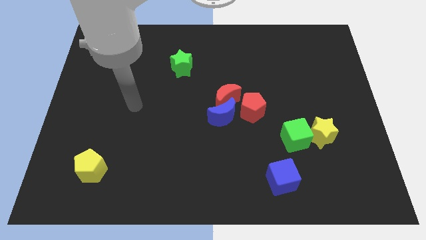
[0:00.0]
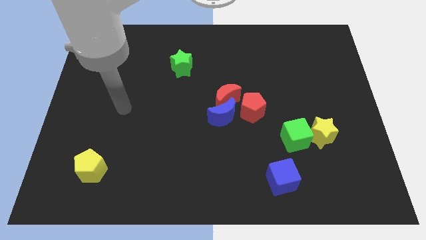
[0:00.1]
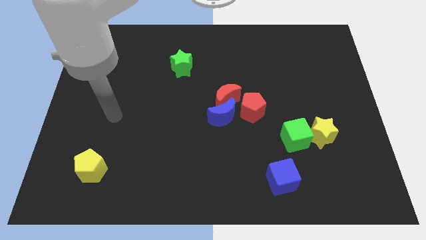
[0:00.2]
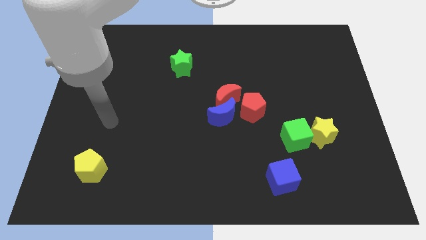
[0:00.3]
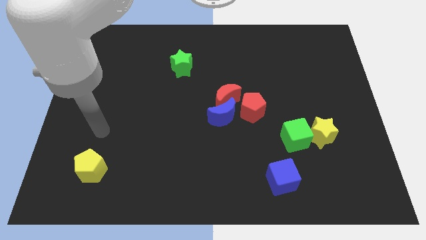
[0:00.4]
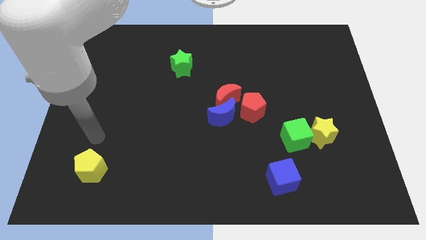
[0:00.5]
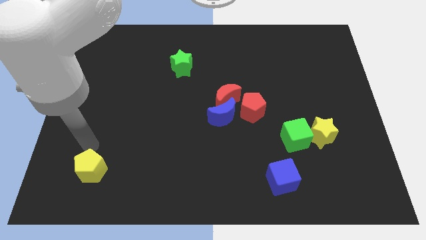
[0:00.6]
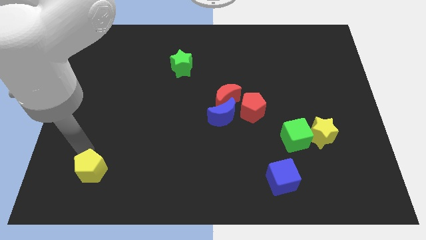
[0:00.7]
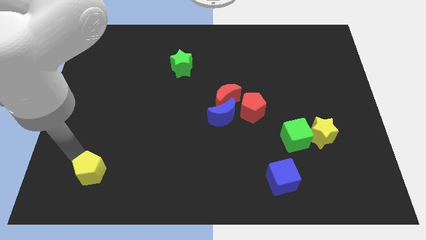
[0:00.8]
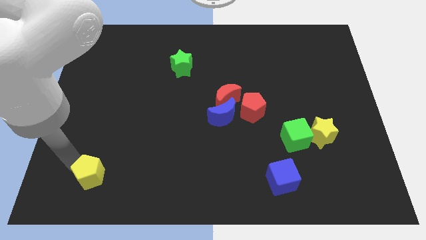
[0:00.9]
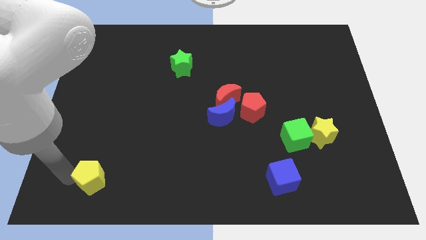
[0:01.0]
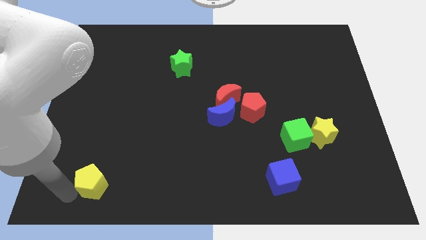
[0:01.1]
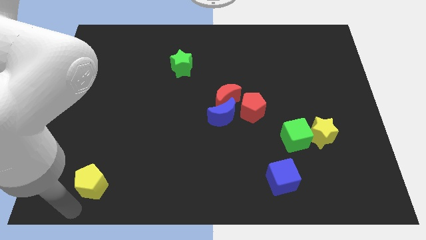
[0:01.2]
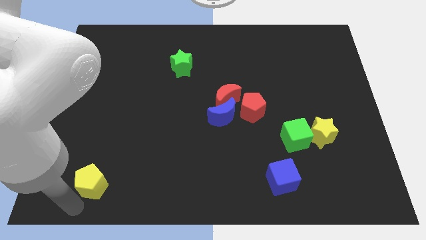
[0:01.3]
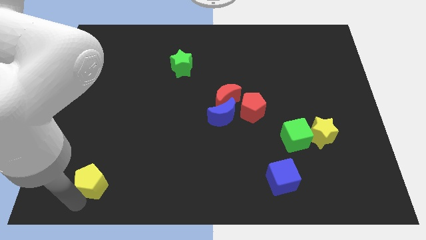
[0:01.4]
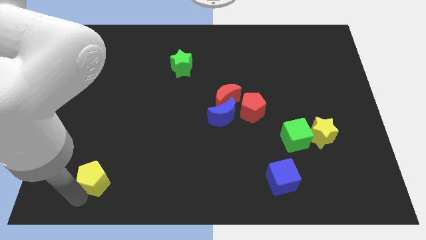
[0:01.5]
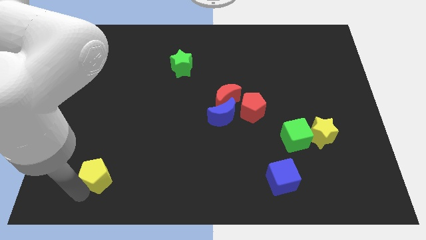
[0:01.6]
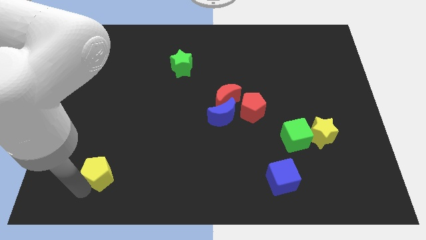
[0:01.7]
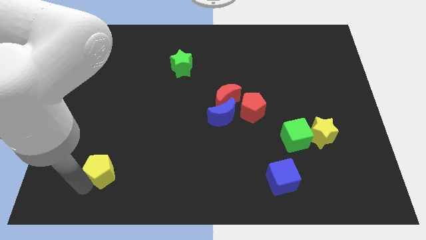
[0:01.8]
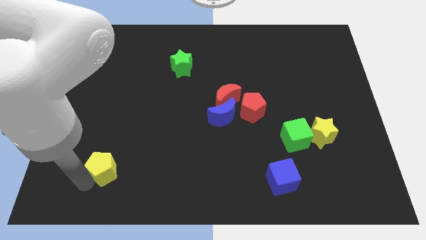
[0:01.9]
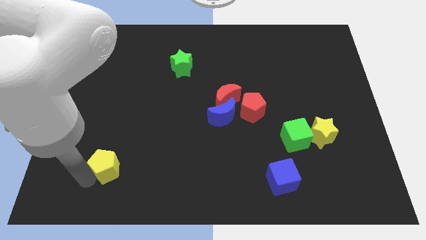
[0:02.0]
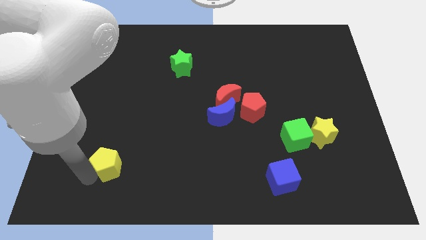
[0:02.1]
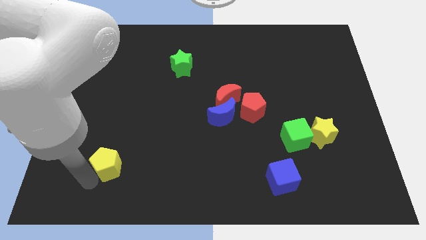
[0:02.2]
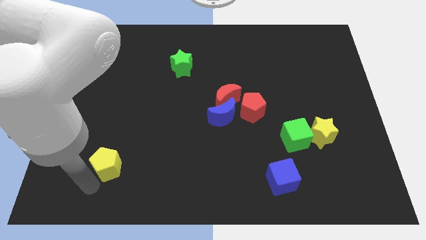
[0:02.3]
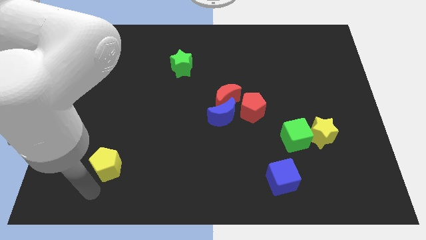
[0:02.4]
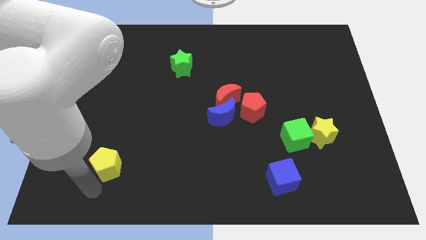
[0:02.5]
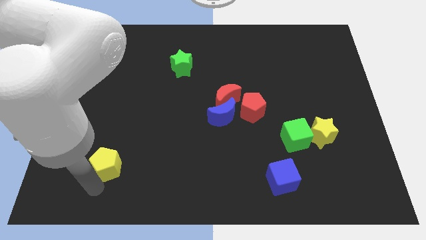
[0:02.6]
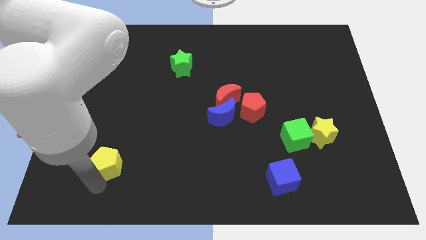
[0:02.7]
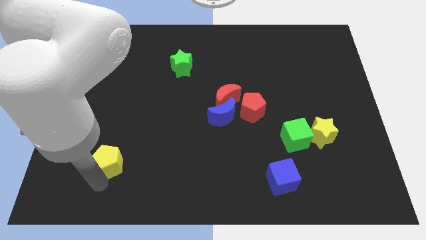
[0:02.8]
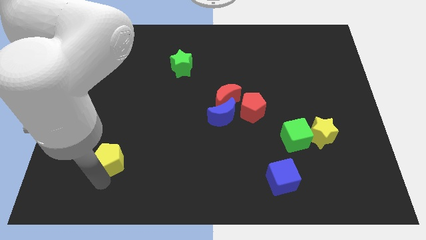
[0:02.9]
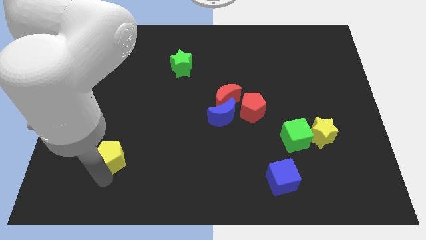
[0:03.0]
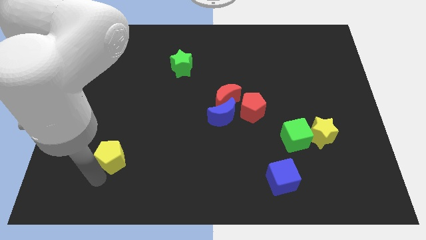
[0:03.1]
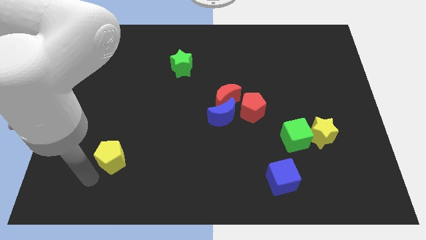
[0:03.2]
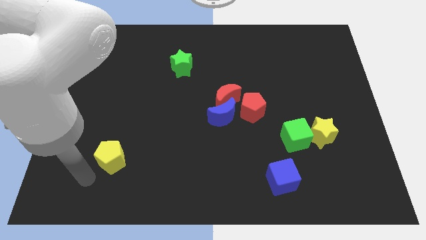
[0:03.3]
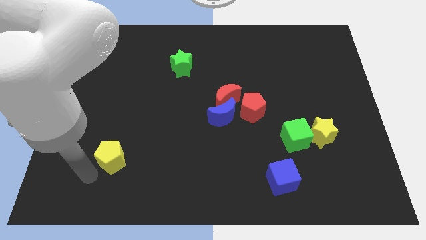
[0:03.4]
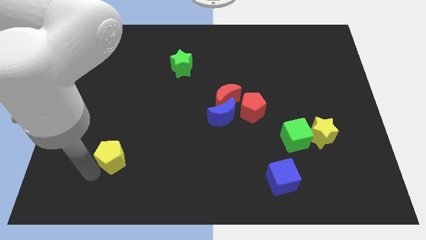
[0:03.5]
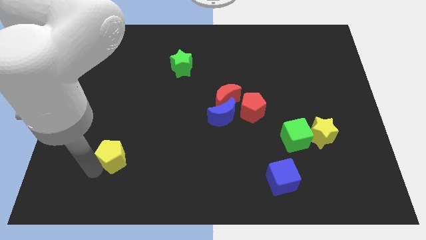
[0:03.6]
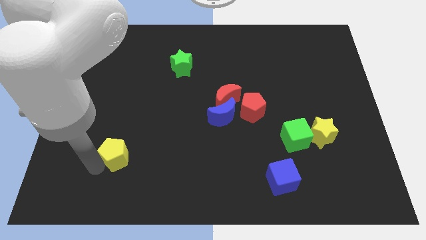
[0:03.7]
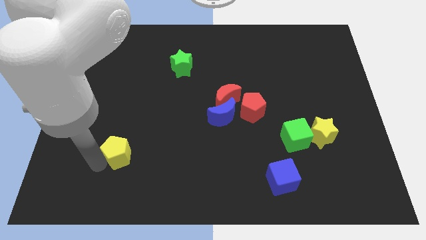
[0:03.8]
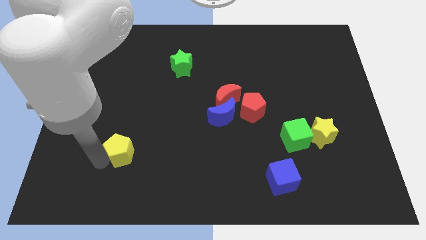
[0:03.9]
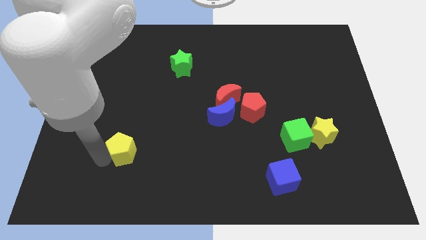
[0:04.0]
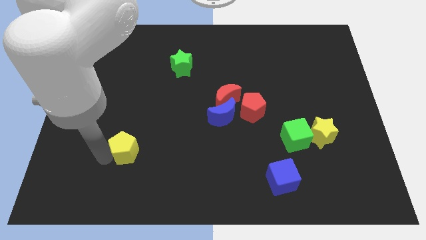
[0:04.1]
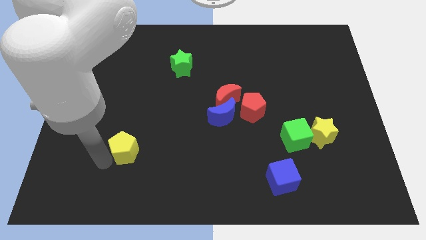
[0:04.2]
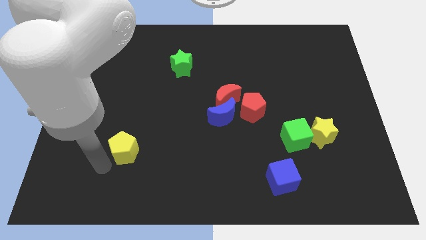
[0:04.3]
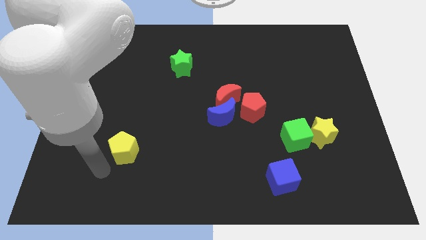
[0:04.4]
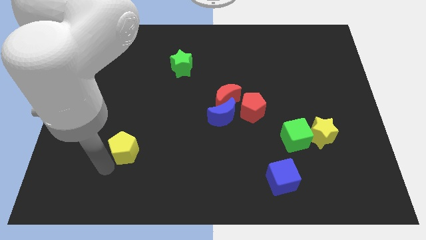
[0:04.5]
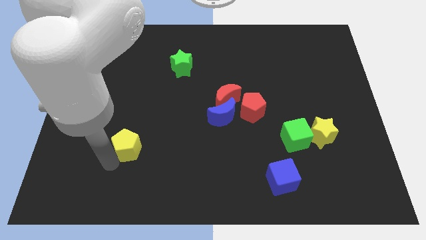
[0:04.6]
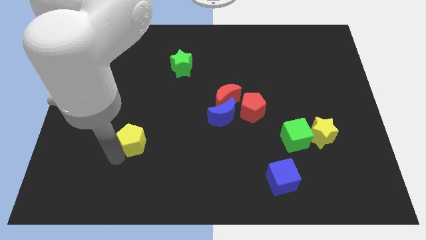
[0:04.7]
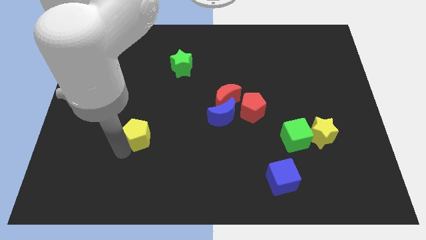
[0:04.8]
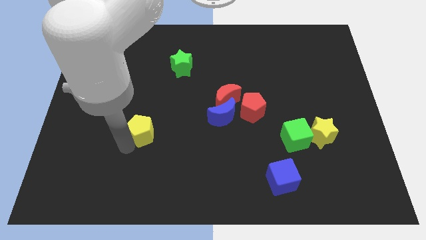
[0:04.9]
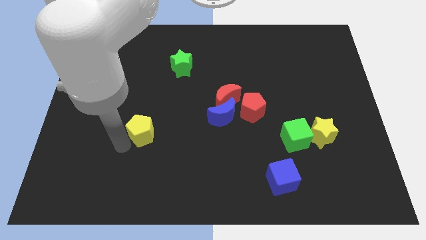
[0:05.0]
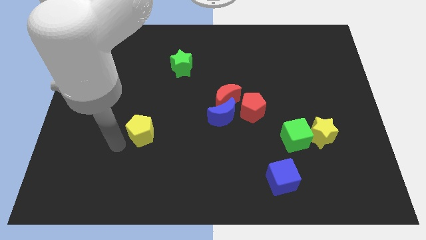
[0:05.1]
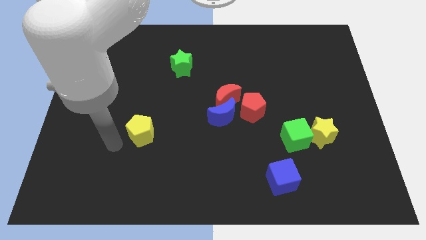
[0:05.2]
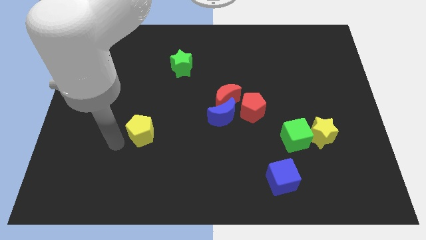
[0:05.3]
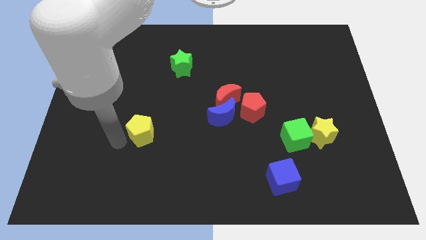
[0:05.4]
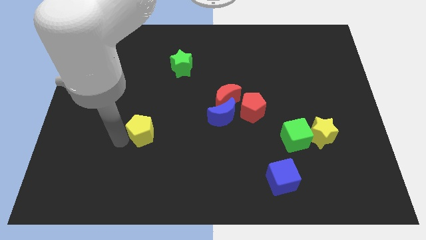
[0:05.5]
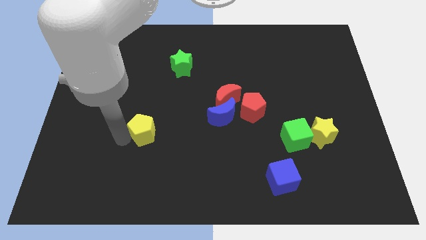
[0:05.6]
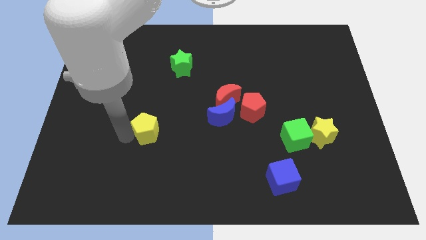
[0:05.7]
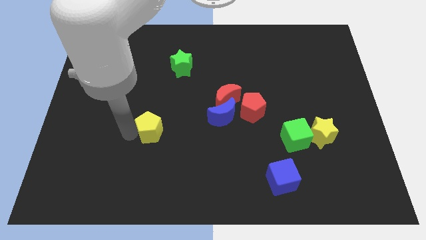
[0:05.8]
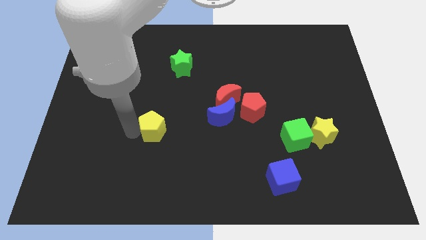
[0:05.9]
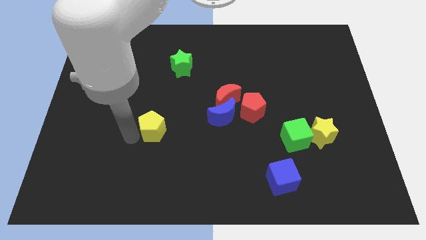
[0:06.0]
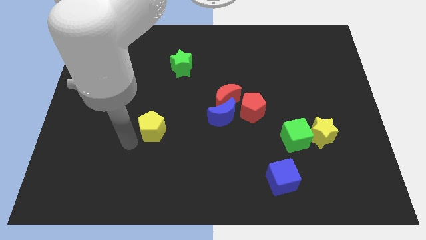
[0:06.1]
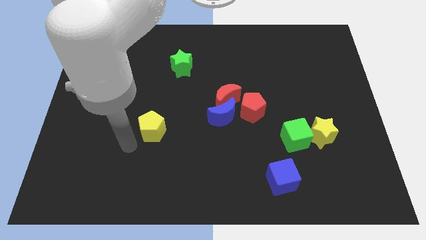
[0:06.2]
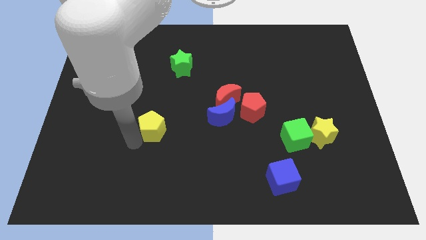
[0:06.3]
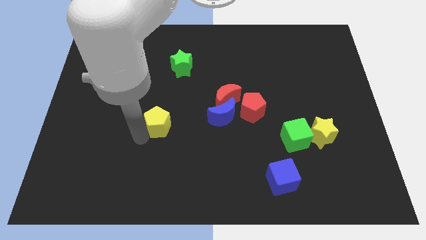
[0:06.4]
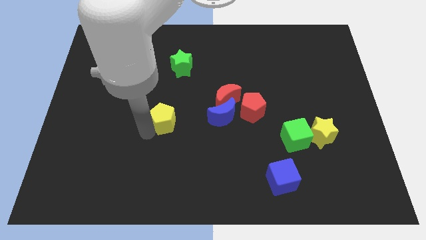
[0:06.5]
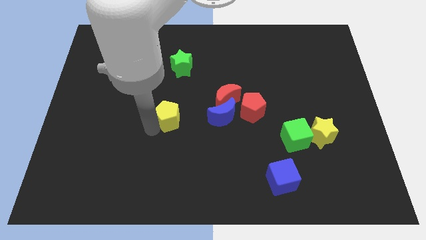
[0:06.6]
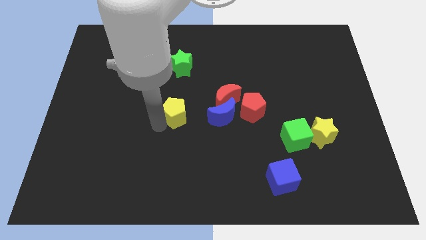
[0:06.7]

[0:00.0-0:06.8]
move the yellow pentagon upwards and then right

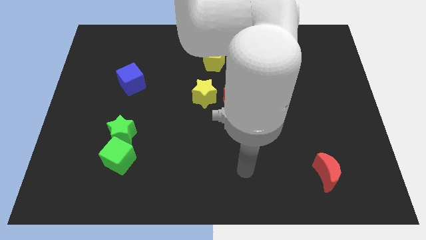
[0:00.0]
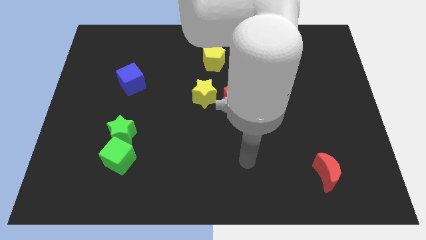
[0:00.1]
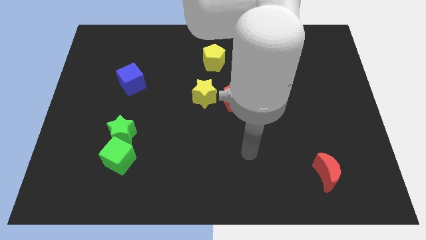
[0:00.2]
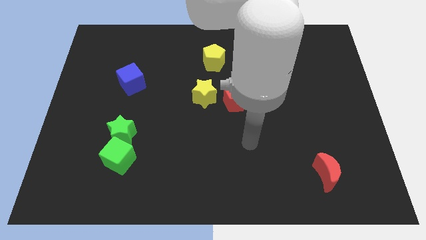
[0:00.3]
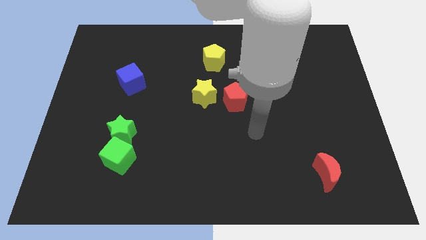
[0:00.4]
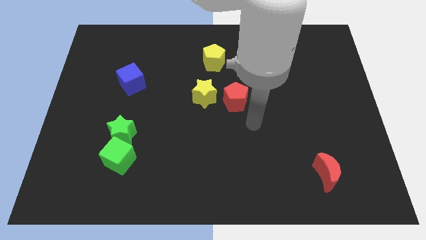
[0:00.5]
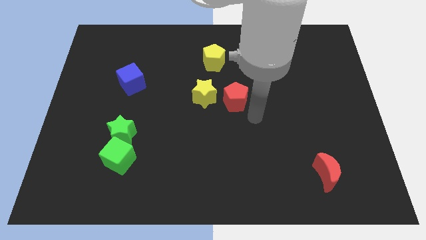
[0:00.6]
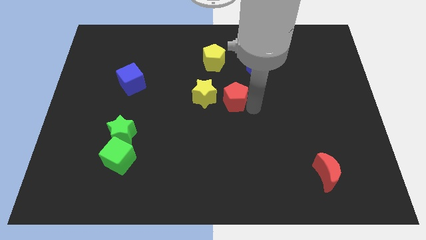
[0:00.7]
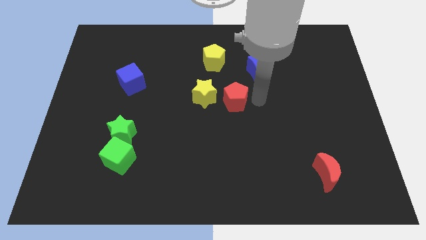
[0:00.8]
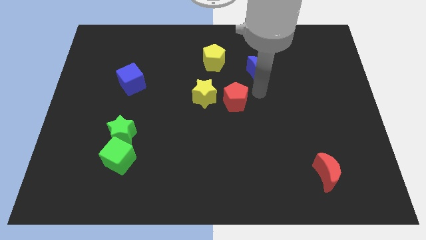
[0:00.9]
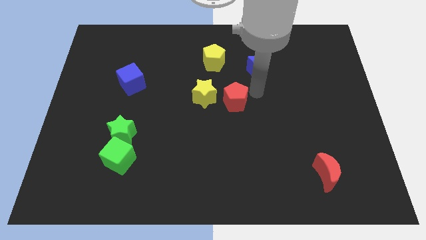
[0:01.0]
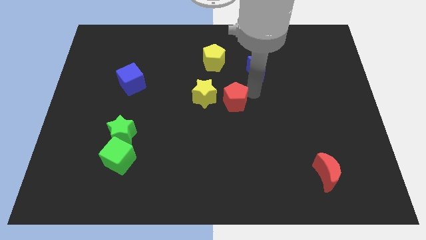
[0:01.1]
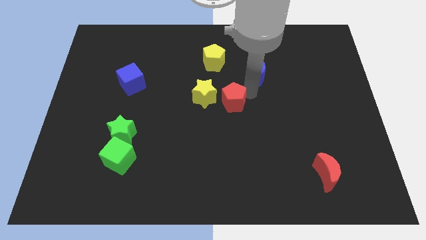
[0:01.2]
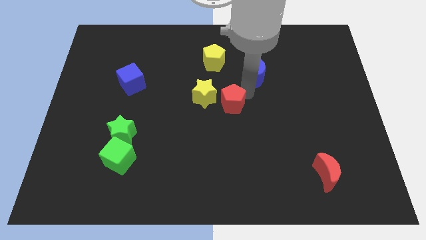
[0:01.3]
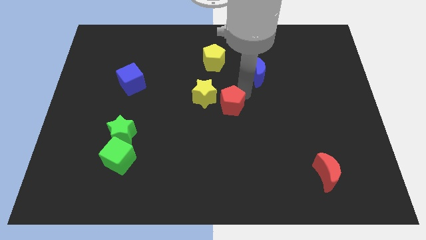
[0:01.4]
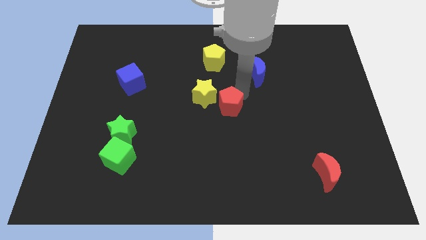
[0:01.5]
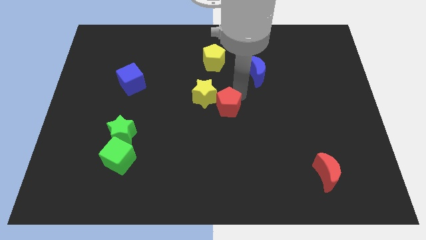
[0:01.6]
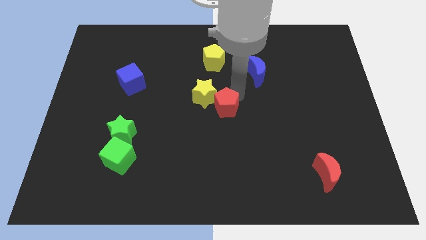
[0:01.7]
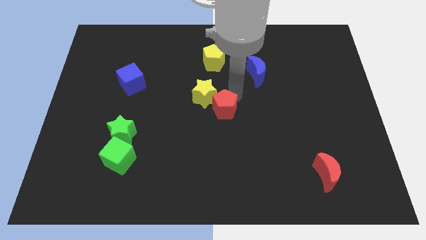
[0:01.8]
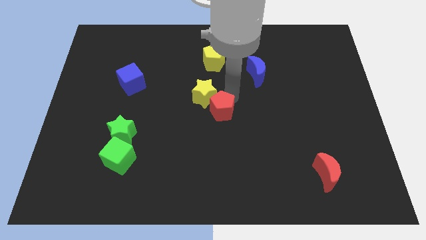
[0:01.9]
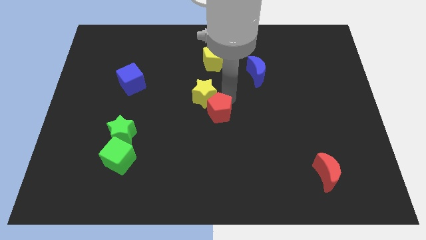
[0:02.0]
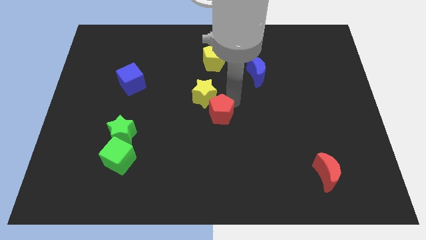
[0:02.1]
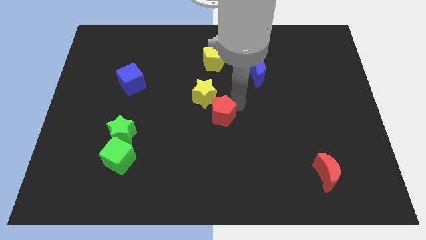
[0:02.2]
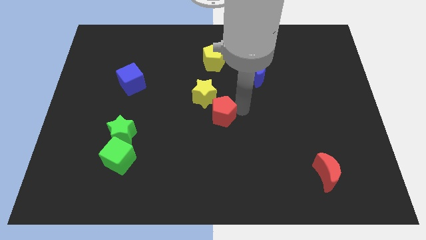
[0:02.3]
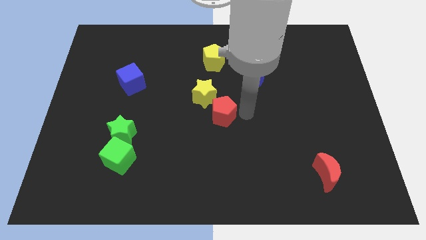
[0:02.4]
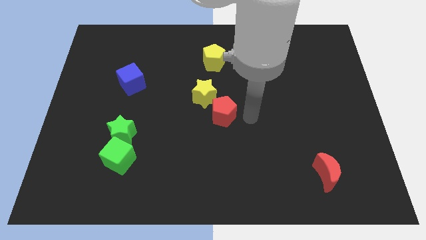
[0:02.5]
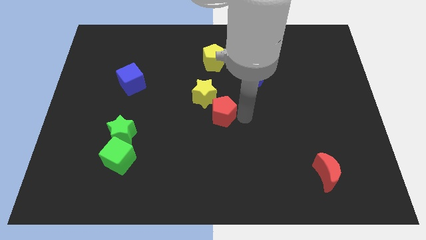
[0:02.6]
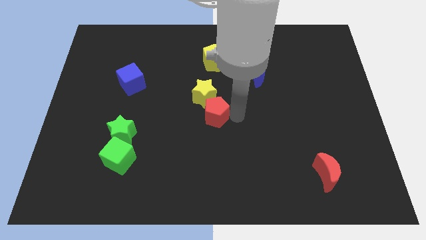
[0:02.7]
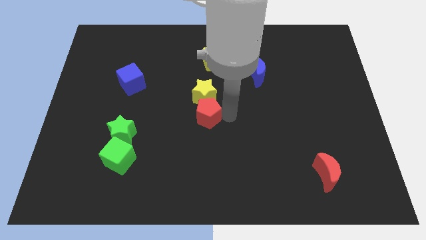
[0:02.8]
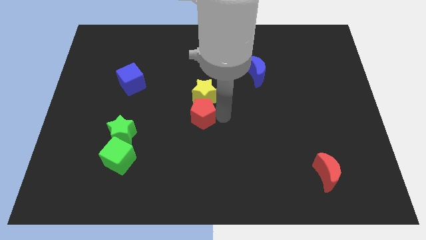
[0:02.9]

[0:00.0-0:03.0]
slide the red pentagon a little bit to the left
